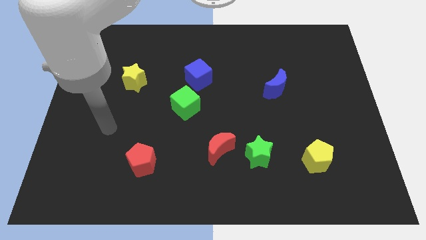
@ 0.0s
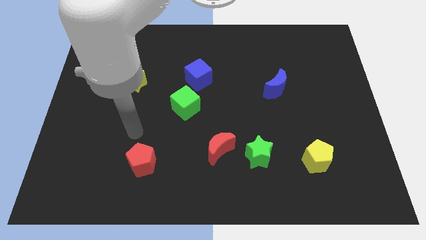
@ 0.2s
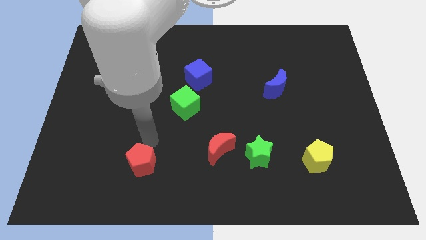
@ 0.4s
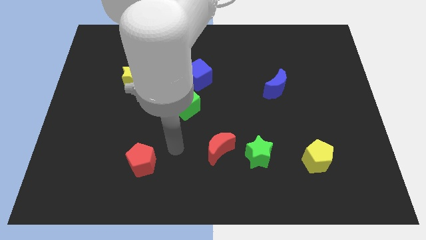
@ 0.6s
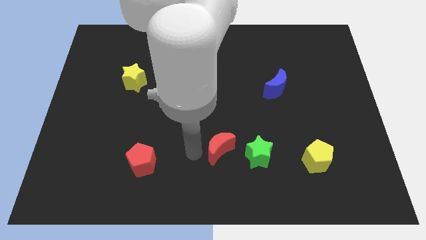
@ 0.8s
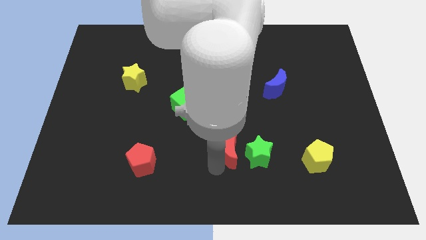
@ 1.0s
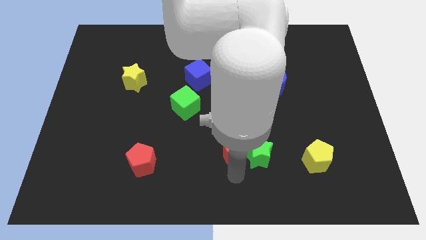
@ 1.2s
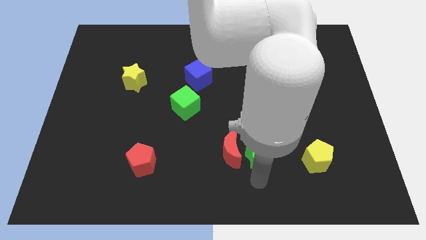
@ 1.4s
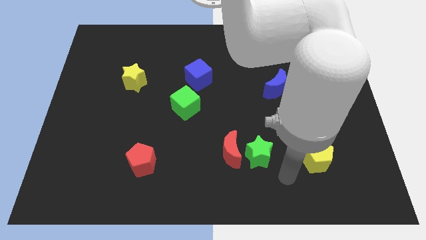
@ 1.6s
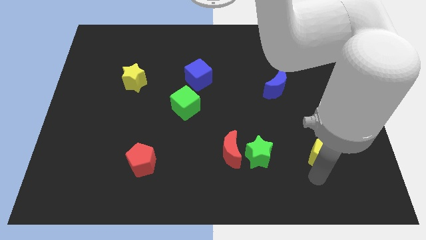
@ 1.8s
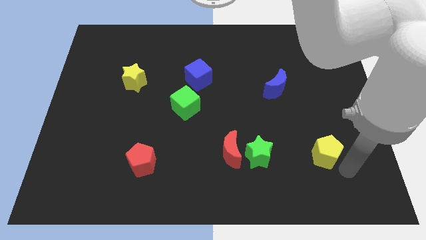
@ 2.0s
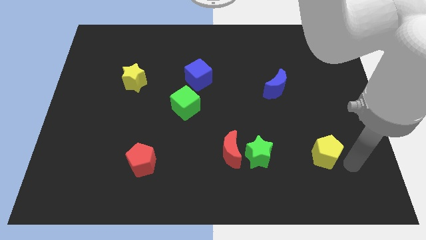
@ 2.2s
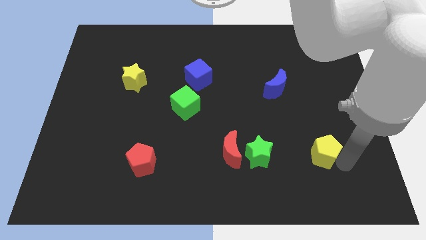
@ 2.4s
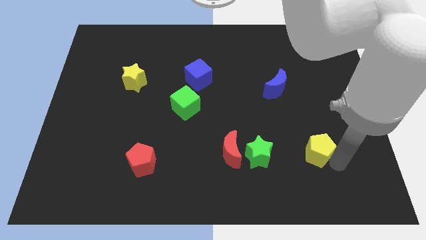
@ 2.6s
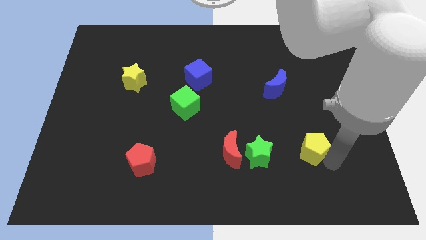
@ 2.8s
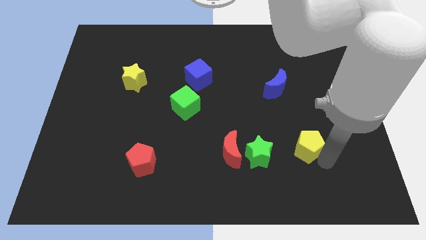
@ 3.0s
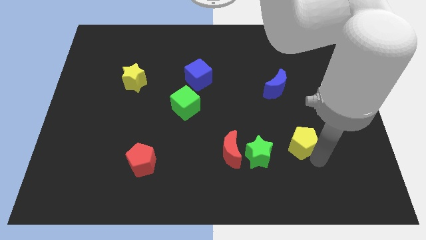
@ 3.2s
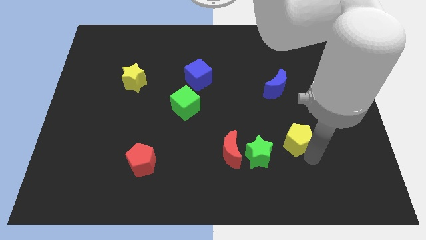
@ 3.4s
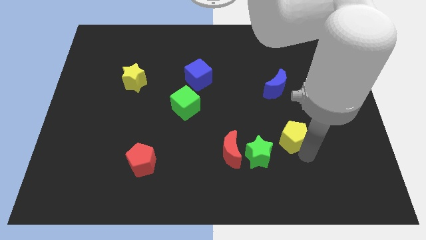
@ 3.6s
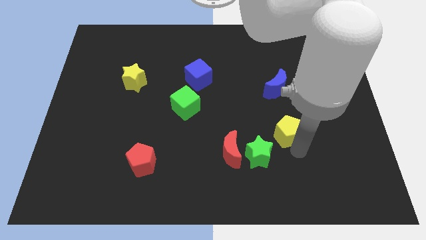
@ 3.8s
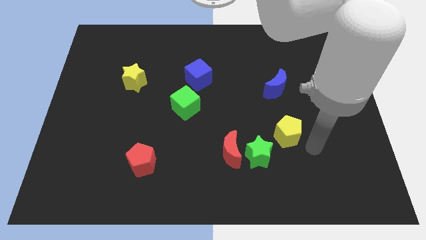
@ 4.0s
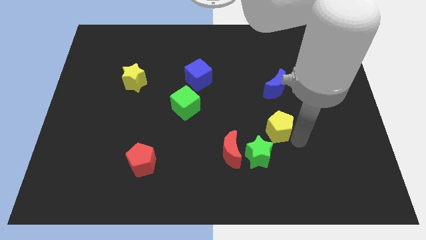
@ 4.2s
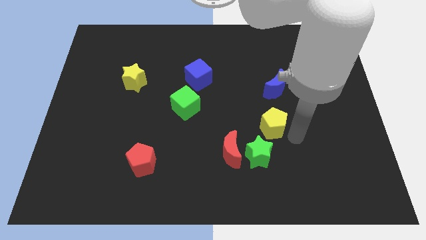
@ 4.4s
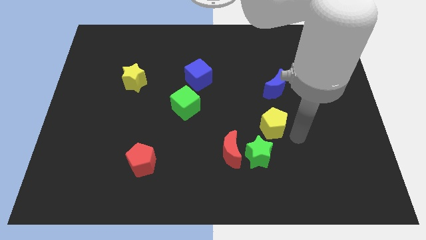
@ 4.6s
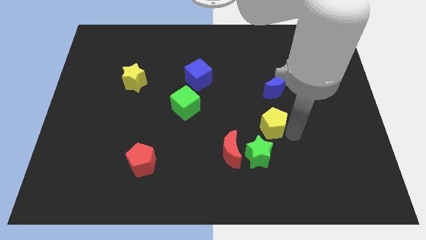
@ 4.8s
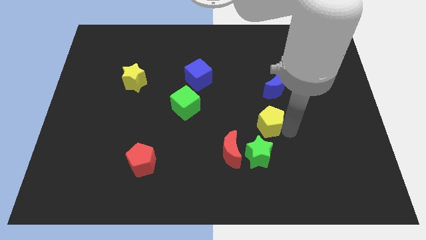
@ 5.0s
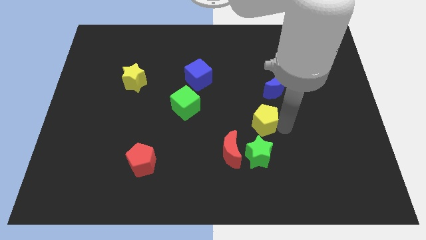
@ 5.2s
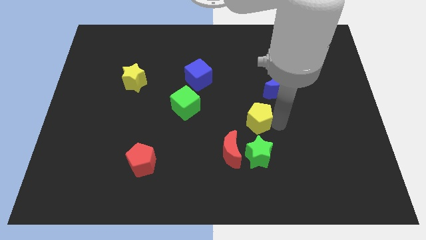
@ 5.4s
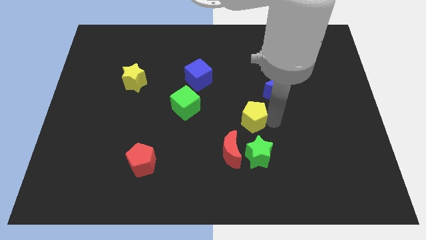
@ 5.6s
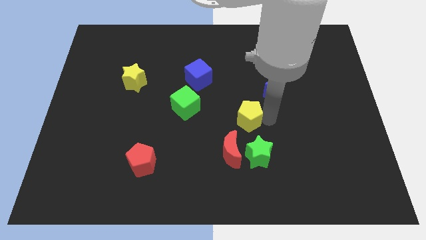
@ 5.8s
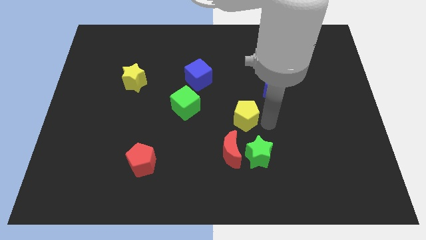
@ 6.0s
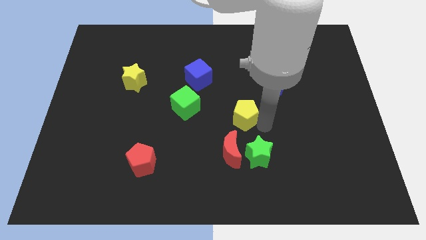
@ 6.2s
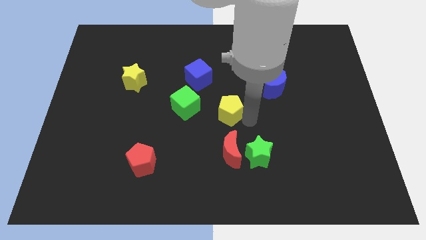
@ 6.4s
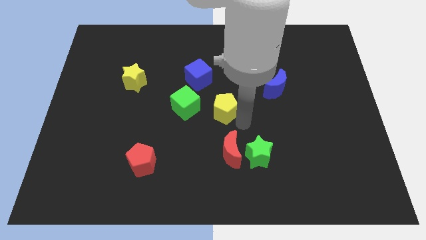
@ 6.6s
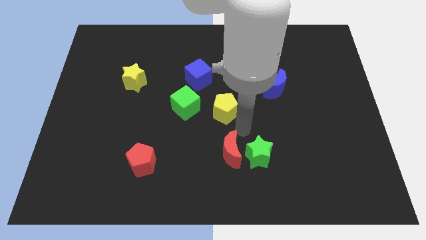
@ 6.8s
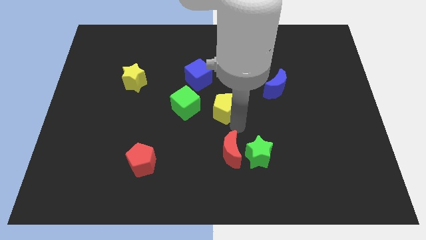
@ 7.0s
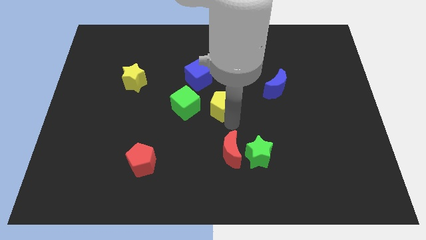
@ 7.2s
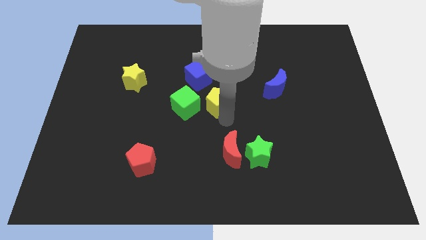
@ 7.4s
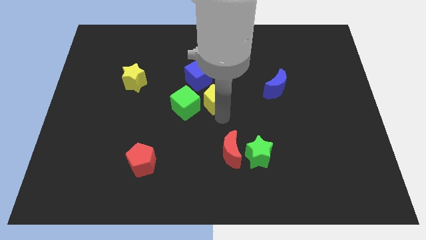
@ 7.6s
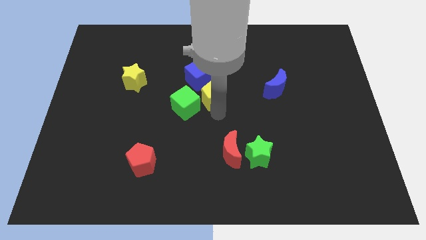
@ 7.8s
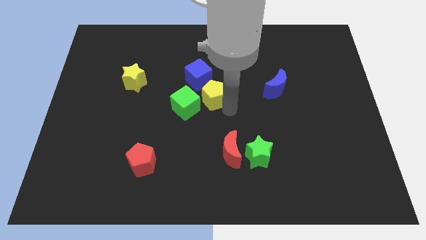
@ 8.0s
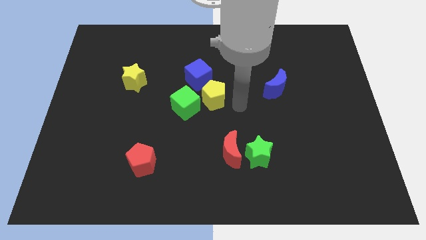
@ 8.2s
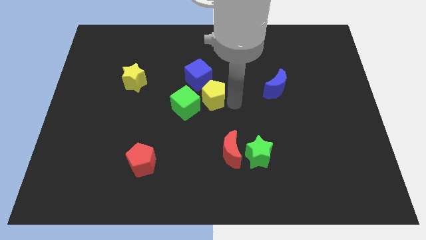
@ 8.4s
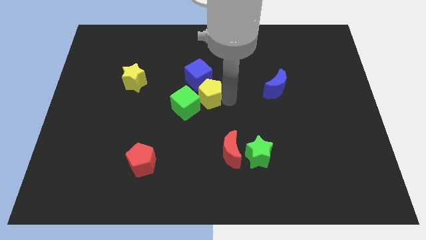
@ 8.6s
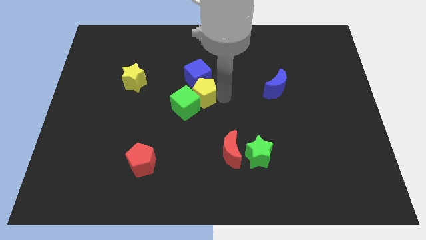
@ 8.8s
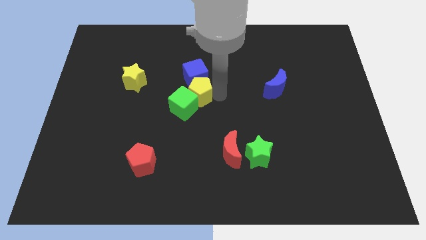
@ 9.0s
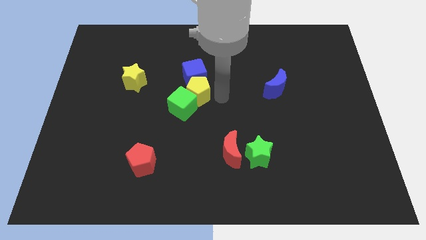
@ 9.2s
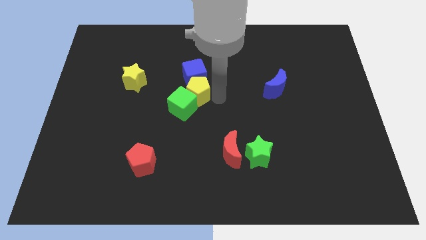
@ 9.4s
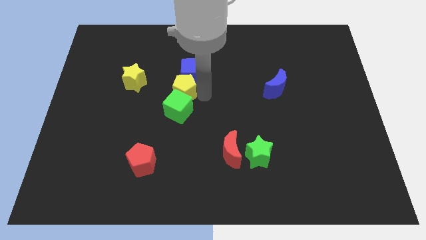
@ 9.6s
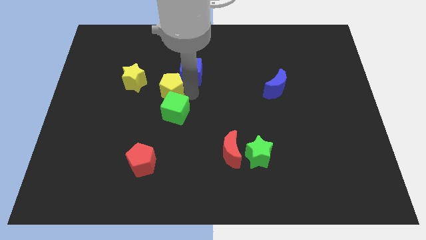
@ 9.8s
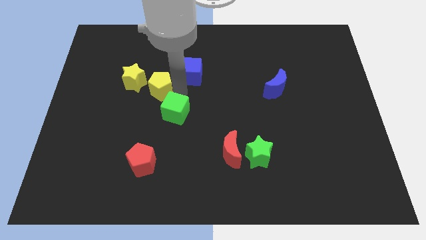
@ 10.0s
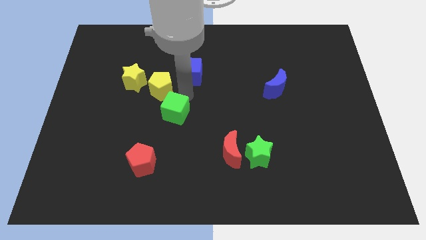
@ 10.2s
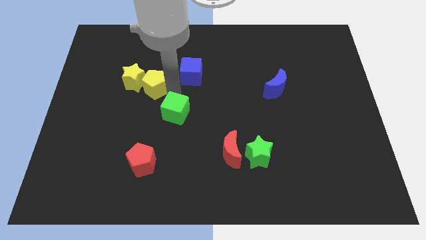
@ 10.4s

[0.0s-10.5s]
slide the yellow pentagon close to the yellow star

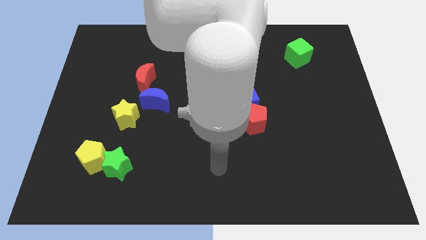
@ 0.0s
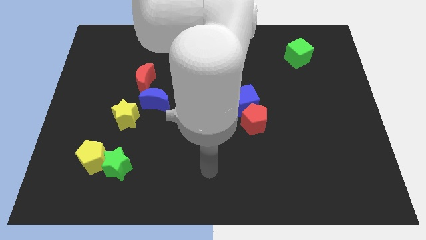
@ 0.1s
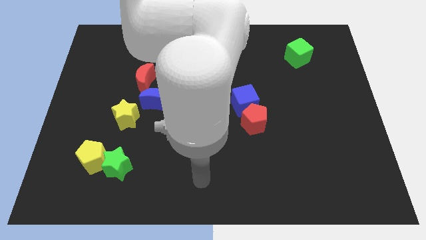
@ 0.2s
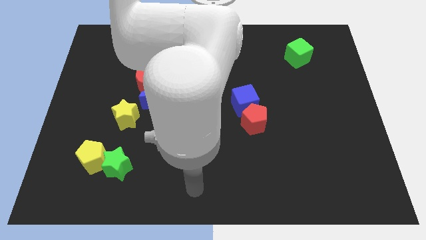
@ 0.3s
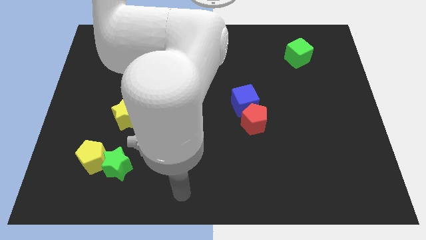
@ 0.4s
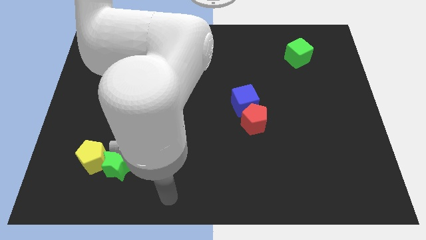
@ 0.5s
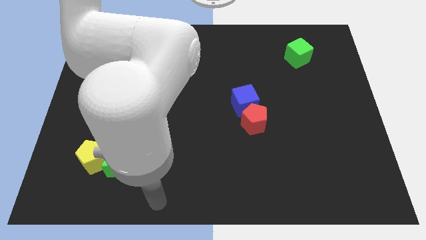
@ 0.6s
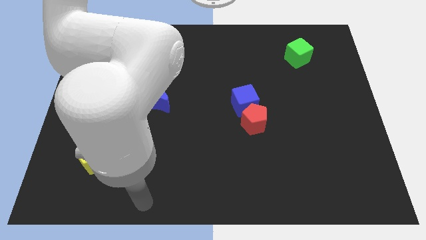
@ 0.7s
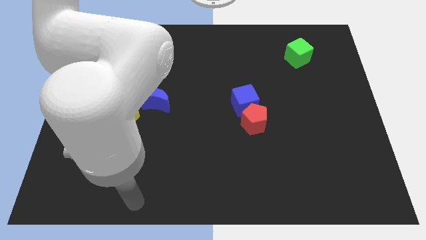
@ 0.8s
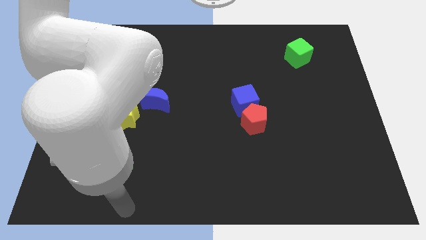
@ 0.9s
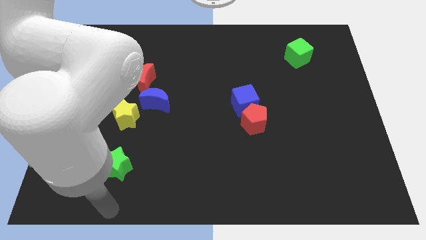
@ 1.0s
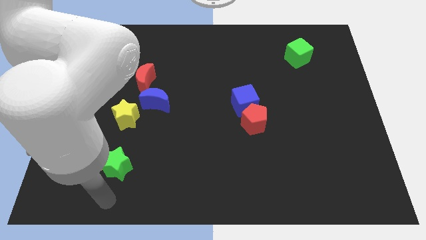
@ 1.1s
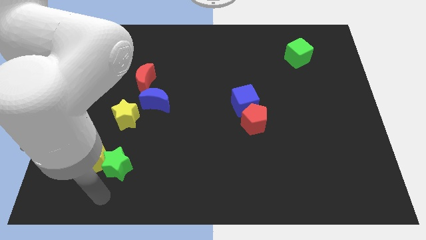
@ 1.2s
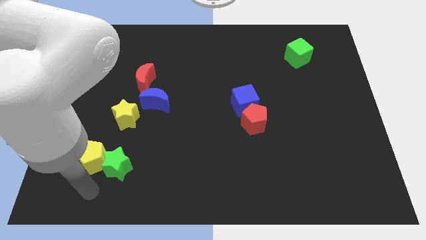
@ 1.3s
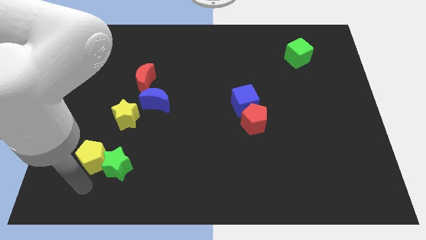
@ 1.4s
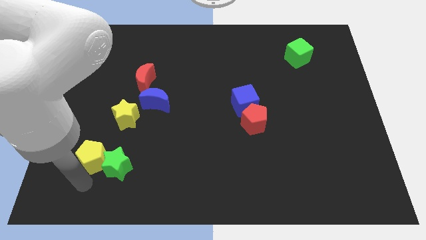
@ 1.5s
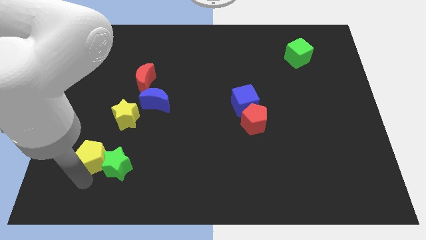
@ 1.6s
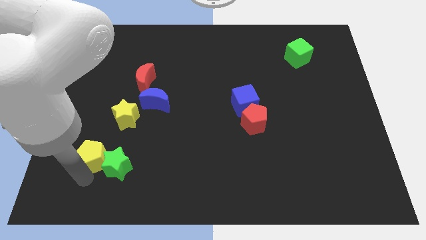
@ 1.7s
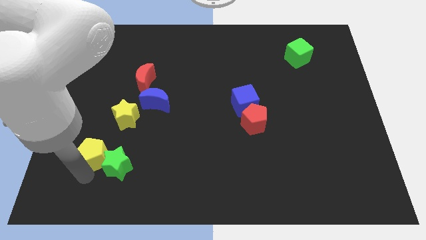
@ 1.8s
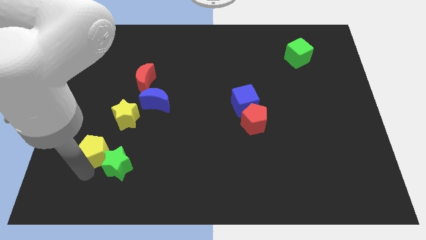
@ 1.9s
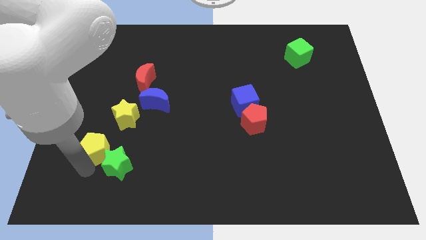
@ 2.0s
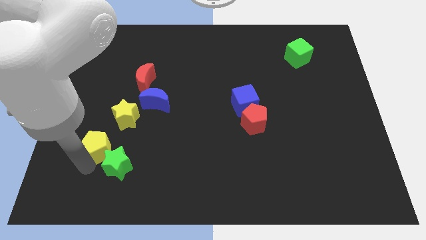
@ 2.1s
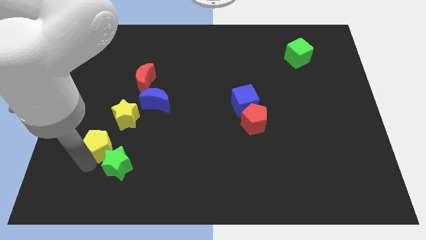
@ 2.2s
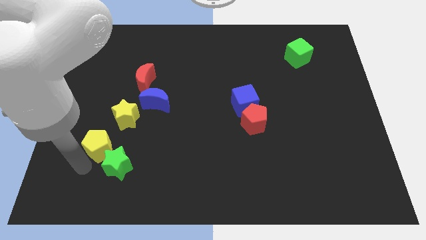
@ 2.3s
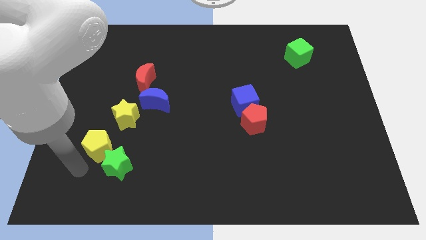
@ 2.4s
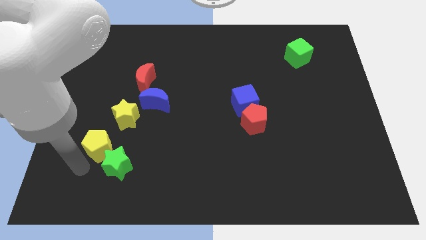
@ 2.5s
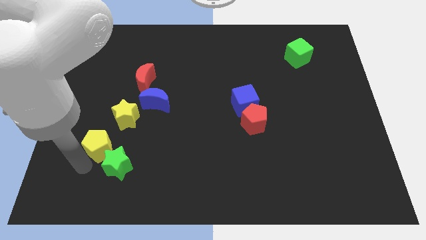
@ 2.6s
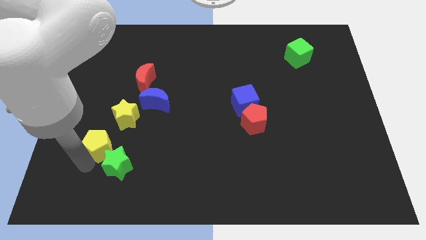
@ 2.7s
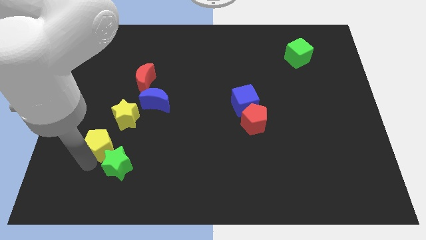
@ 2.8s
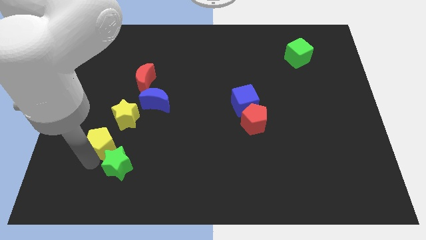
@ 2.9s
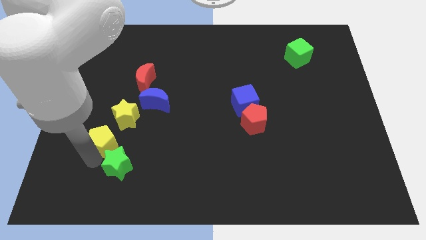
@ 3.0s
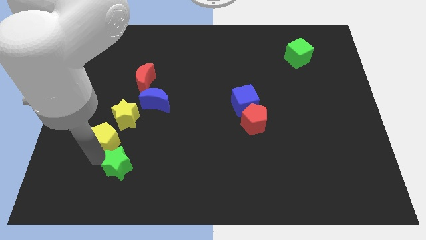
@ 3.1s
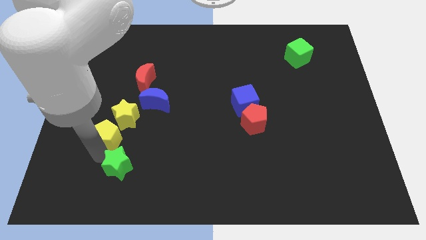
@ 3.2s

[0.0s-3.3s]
move the yellow pentagon close to the yellow star
